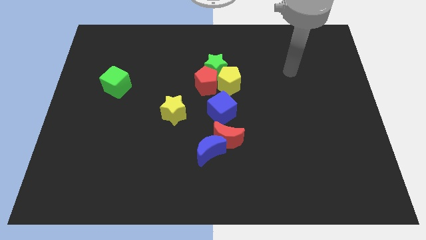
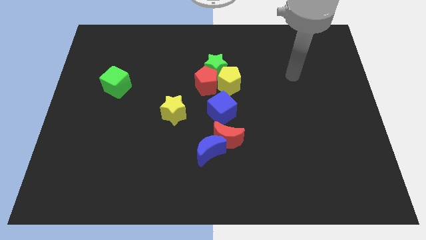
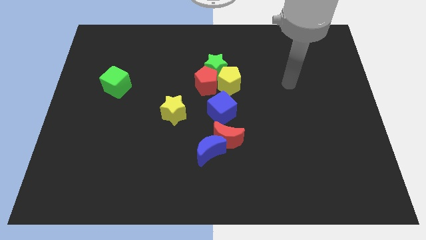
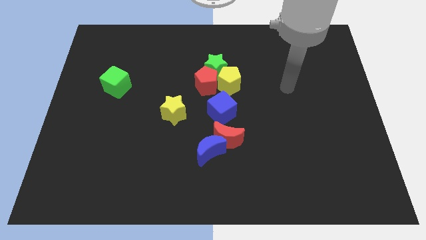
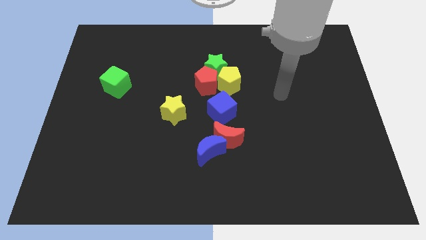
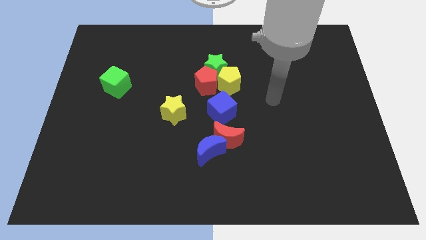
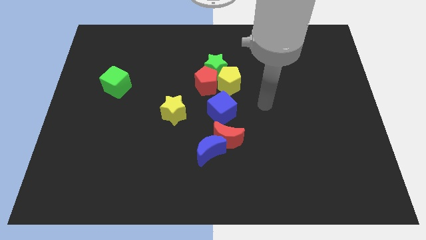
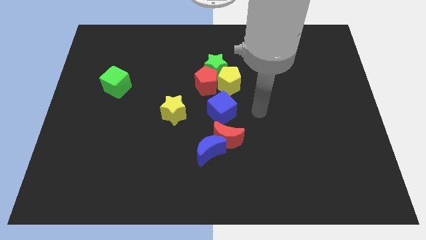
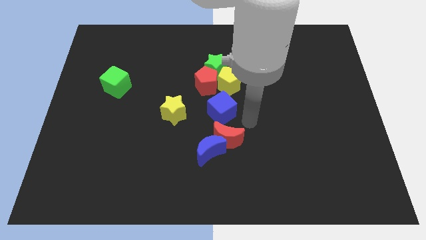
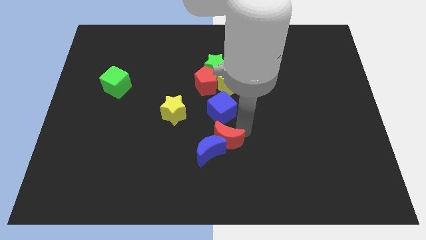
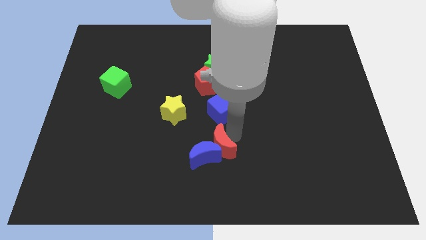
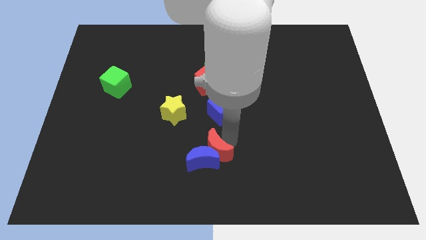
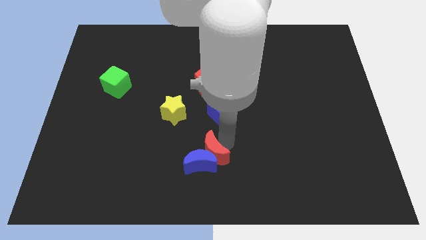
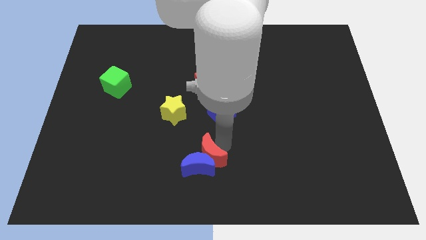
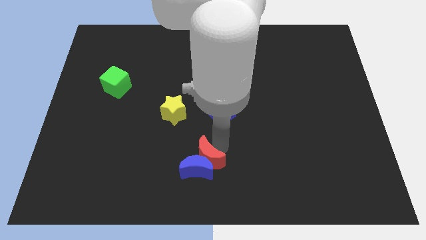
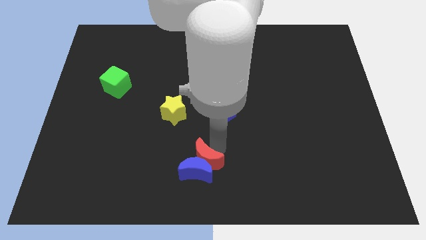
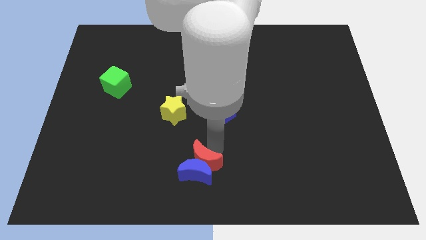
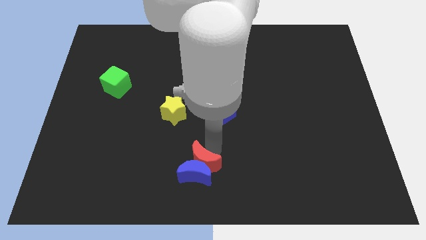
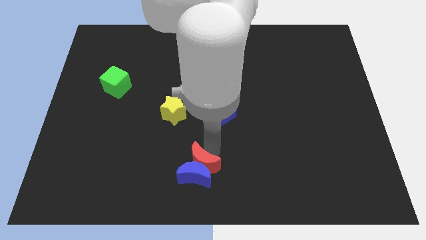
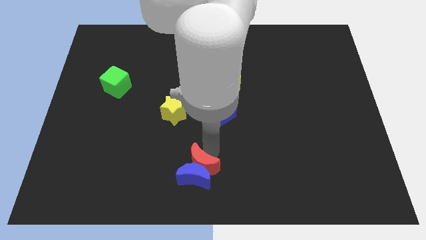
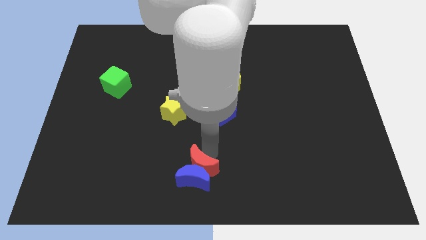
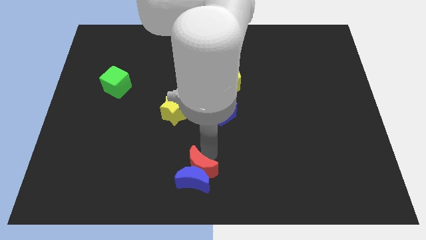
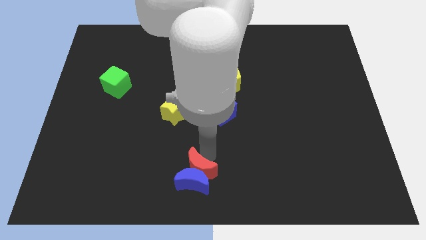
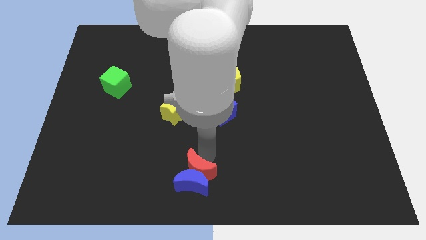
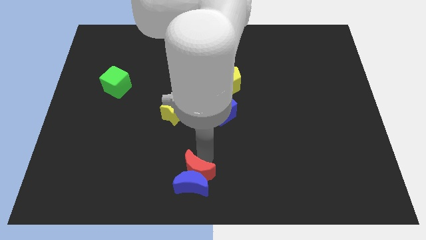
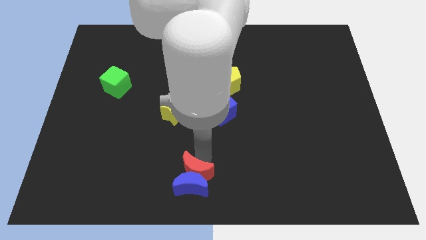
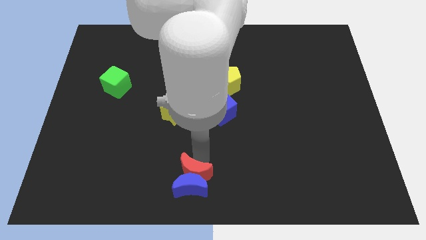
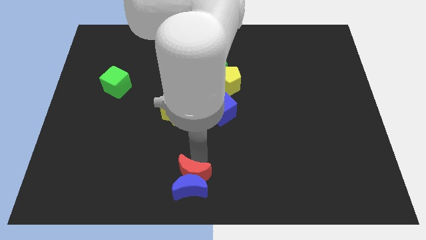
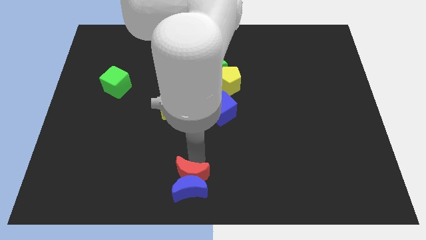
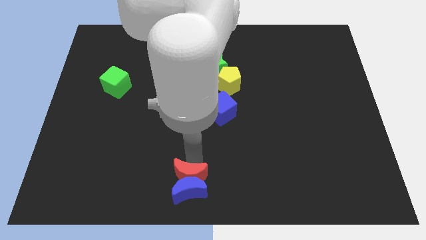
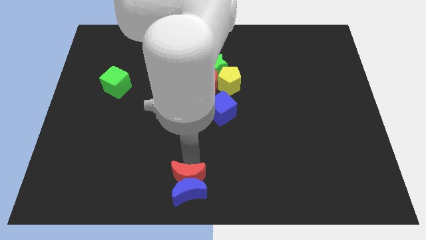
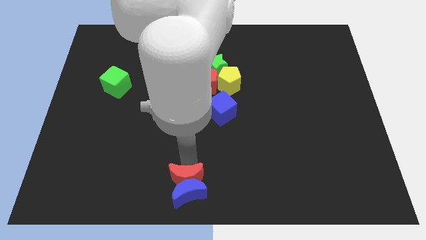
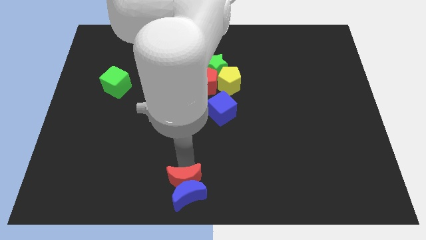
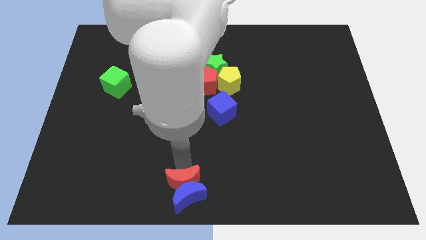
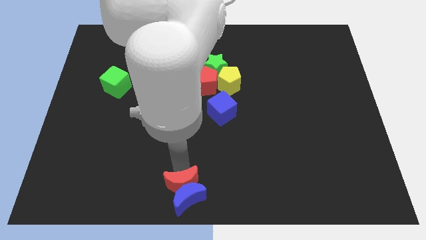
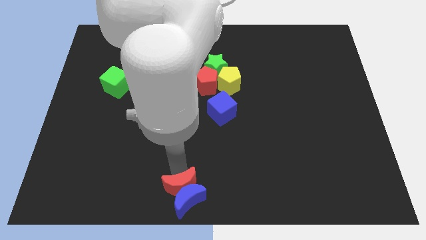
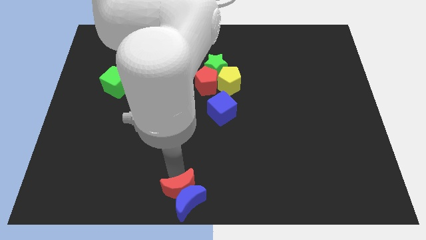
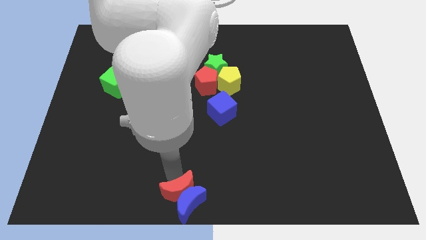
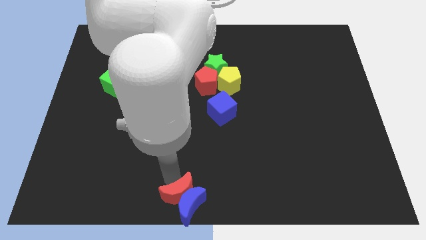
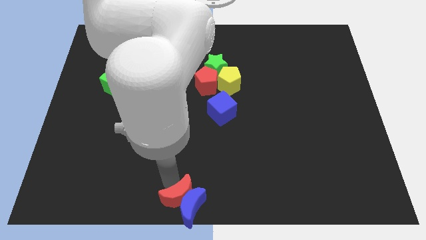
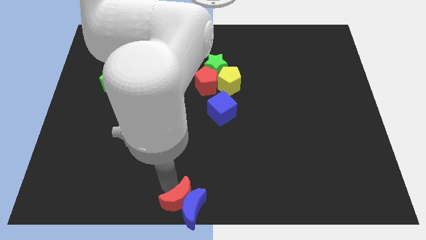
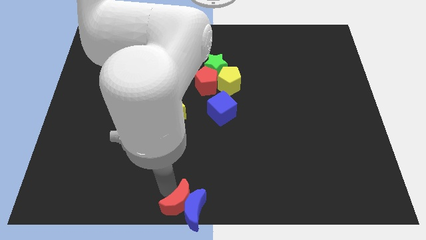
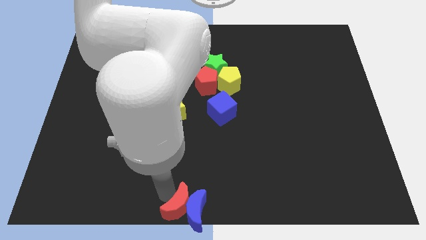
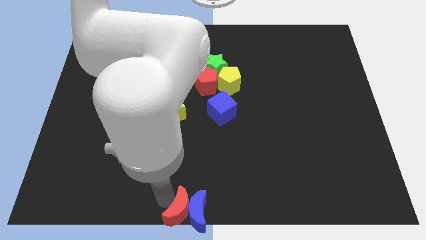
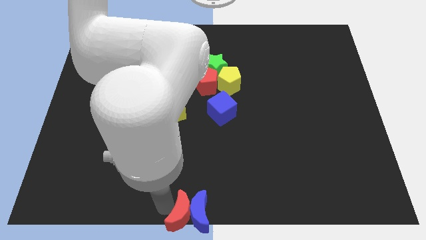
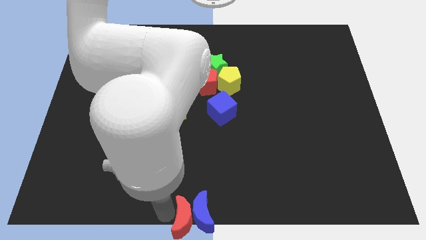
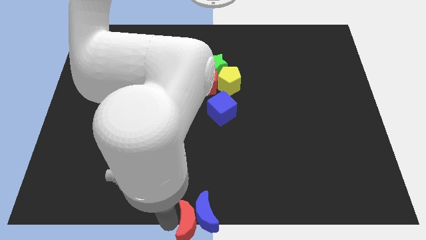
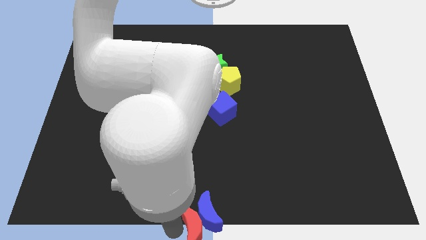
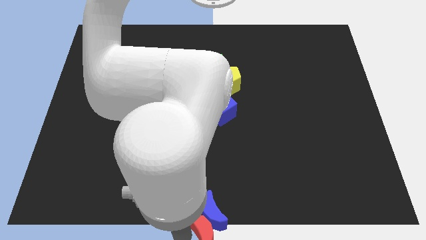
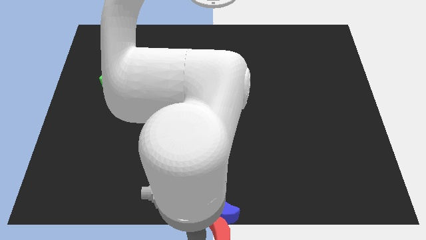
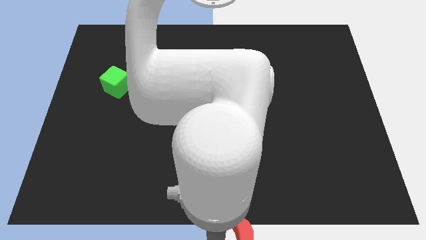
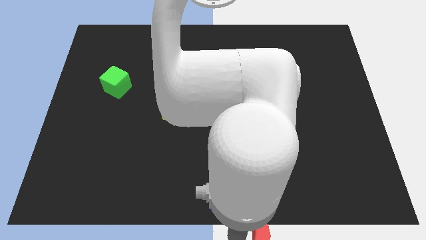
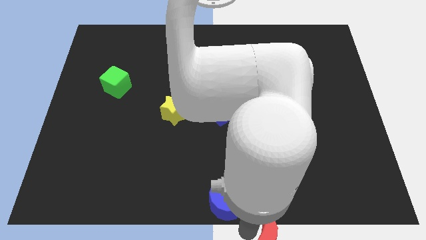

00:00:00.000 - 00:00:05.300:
separate the blue moon from the red moon

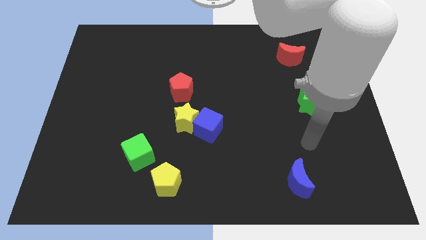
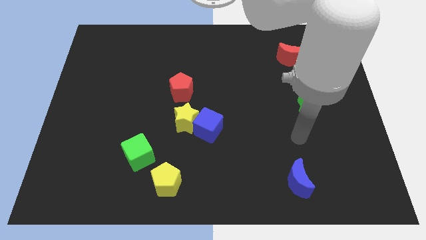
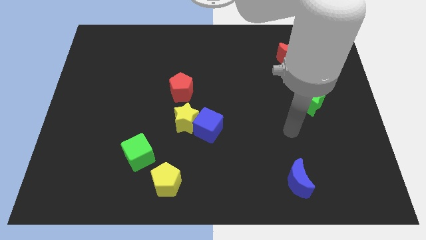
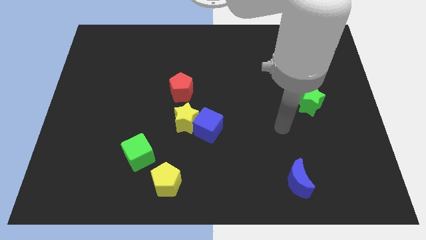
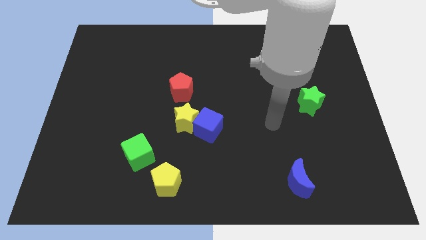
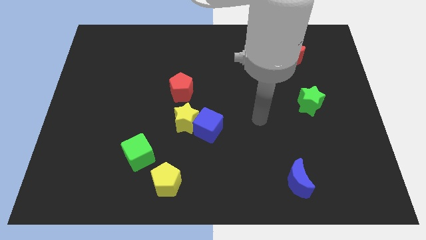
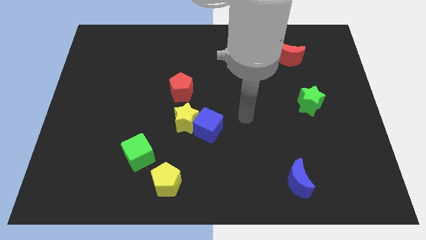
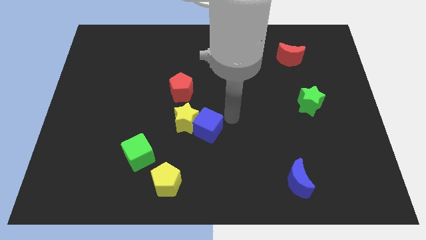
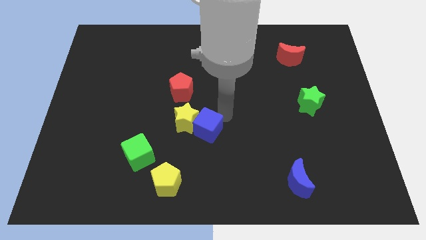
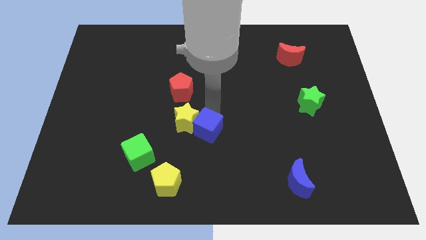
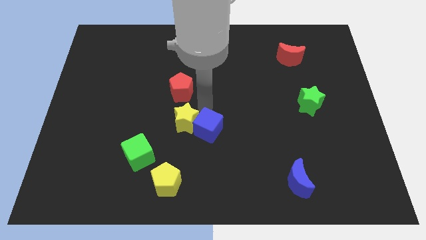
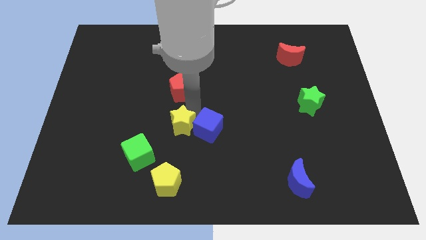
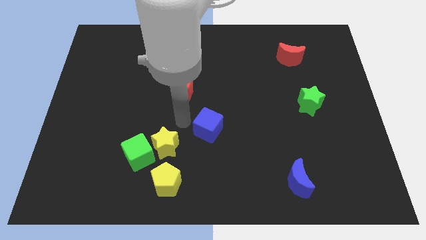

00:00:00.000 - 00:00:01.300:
pull the blue cube apart from the yellow star

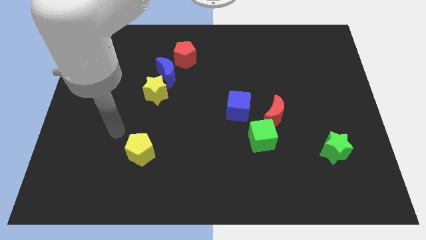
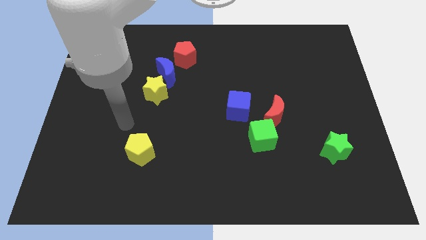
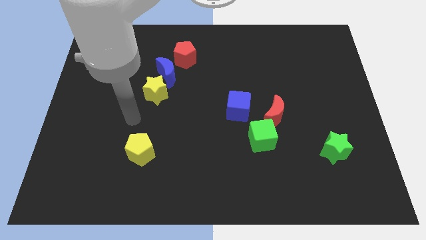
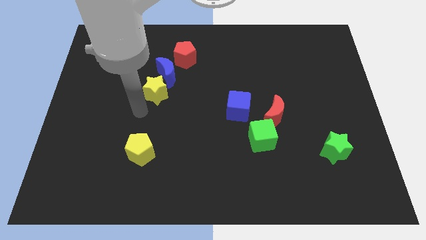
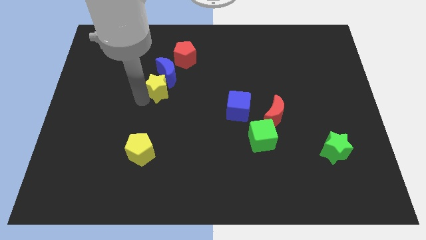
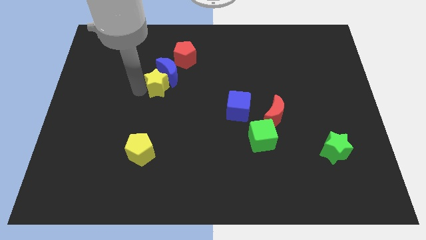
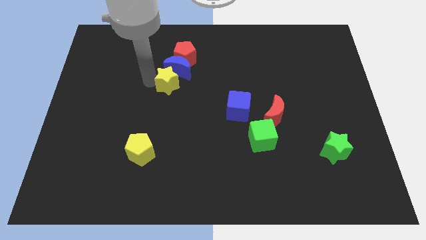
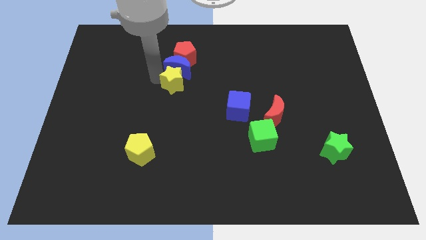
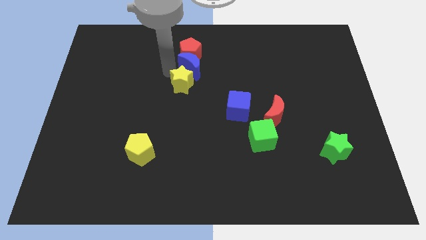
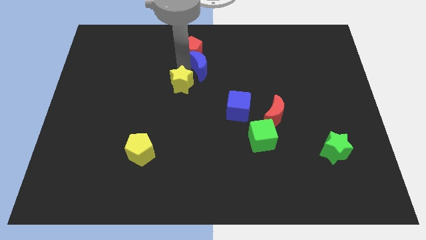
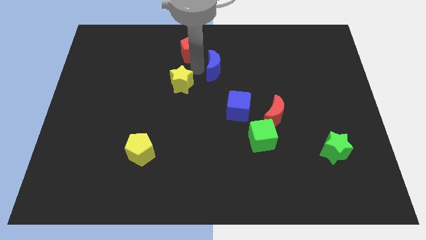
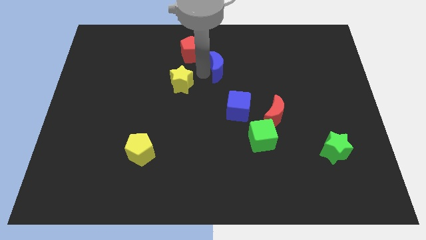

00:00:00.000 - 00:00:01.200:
move the yellow star away from the blue moon

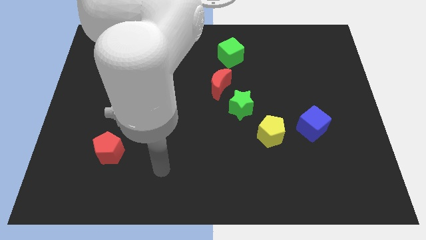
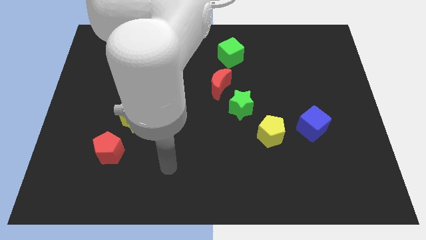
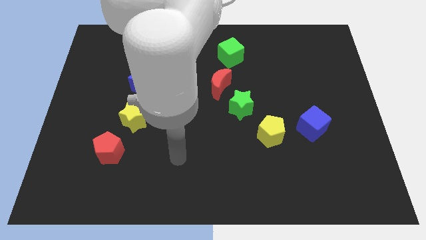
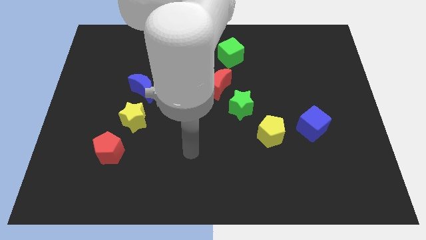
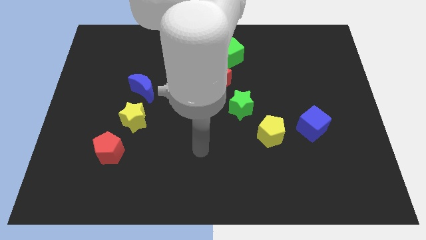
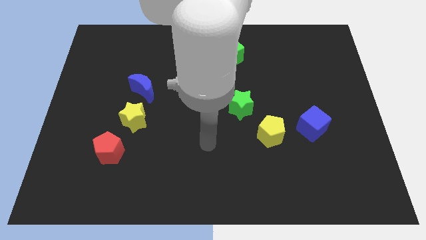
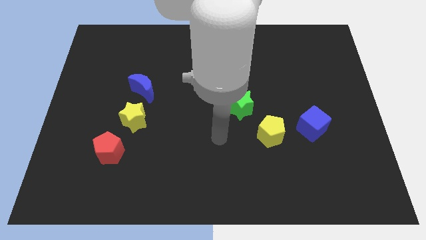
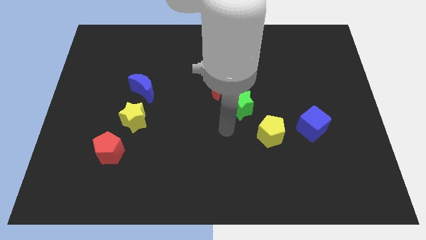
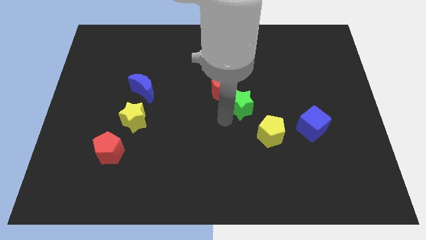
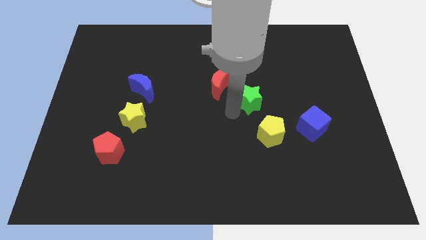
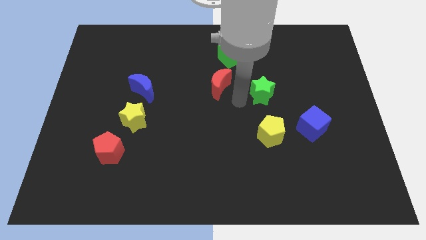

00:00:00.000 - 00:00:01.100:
pull the red moon apart from the green star

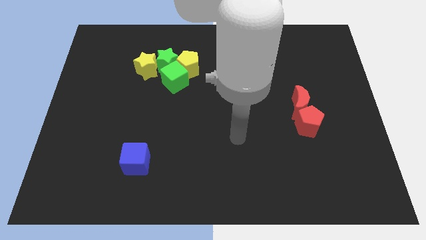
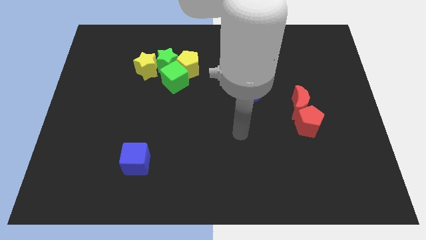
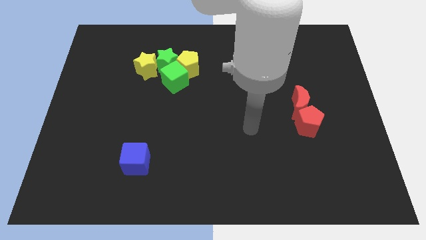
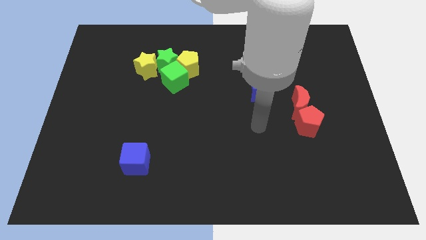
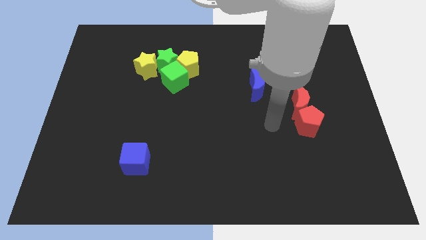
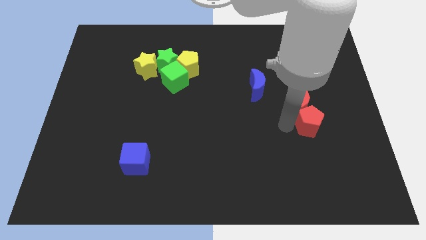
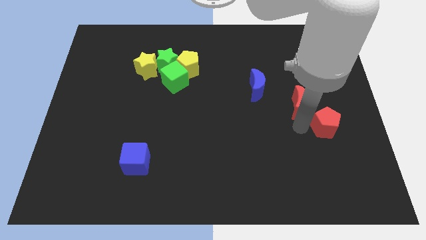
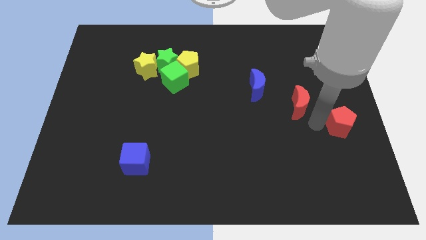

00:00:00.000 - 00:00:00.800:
separate the red moon from the red pentagon
